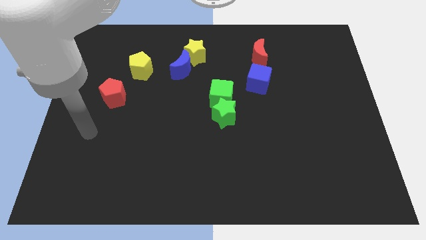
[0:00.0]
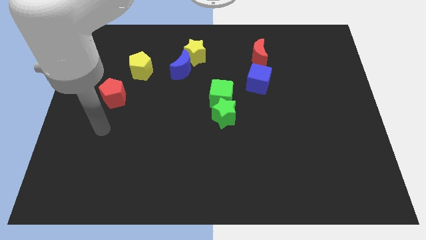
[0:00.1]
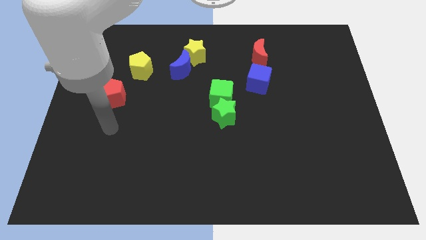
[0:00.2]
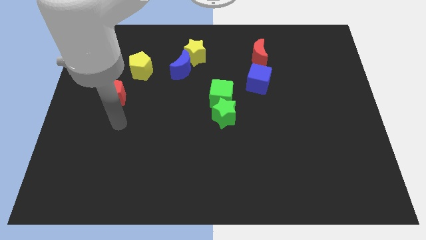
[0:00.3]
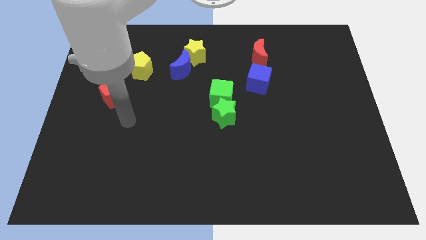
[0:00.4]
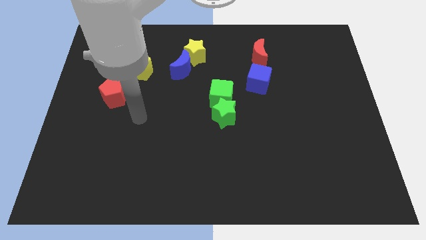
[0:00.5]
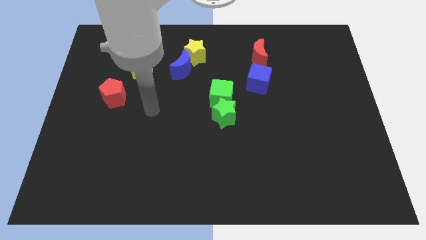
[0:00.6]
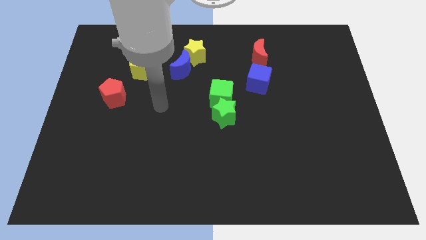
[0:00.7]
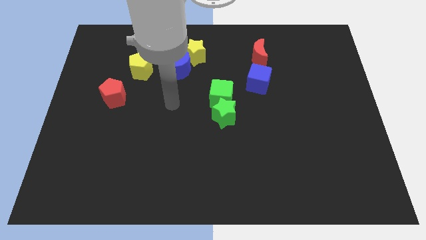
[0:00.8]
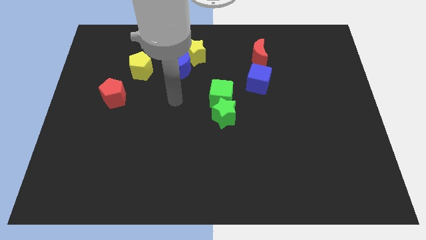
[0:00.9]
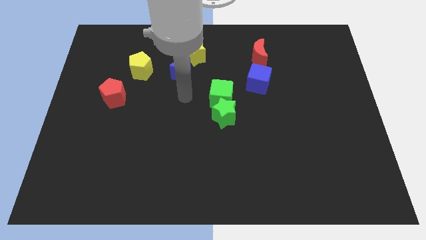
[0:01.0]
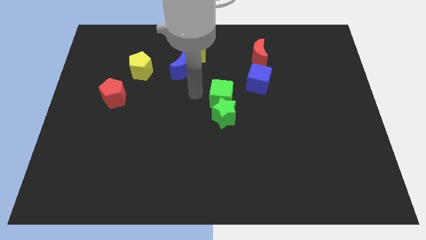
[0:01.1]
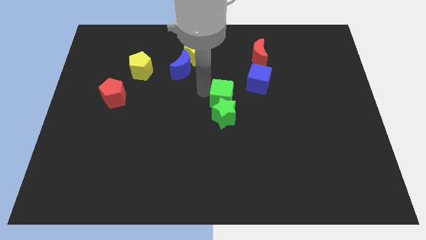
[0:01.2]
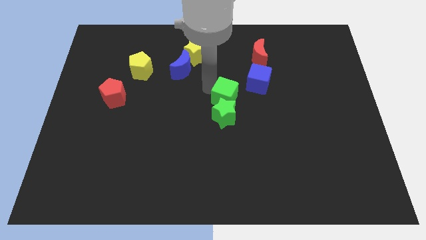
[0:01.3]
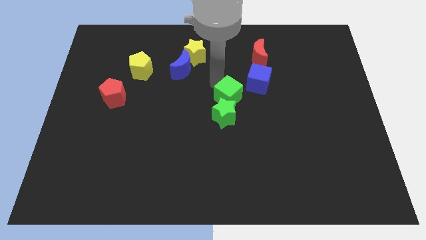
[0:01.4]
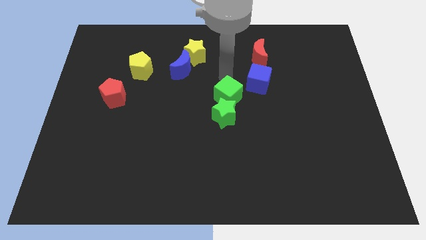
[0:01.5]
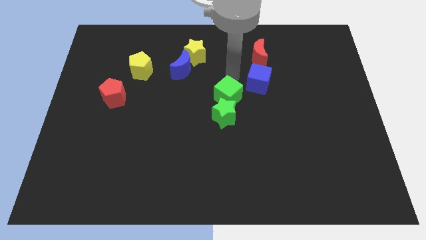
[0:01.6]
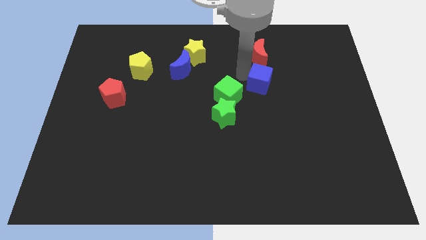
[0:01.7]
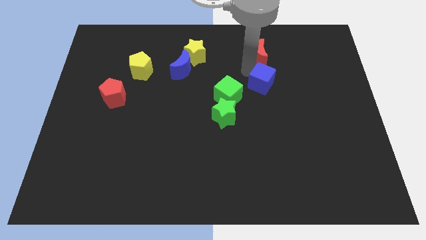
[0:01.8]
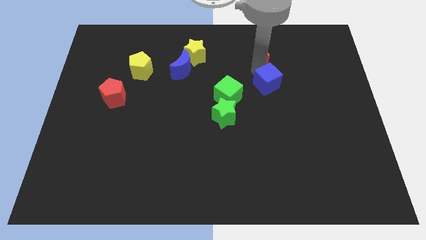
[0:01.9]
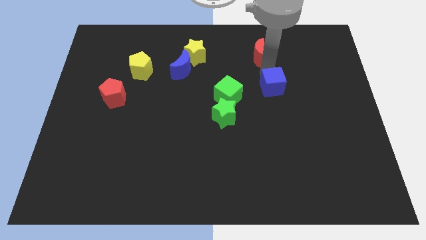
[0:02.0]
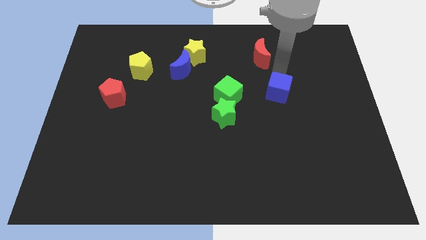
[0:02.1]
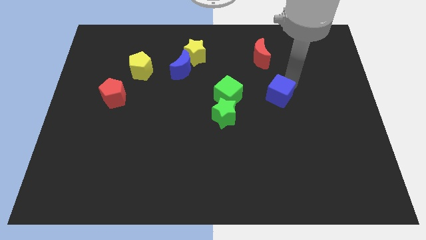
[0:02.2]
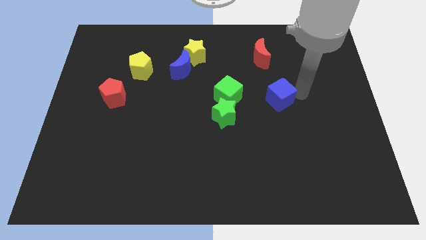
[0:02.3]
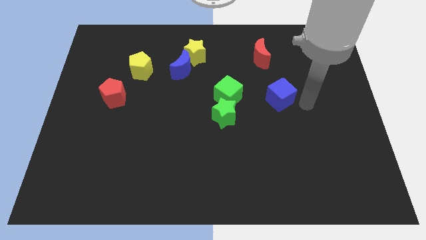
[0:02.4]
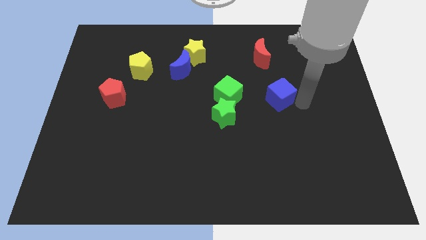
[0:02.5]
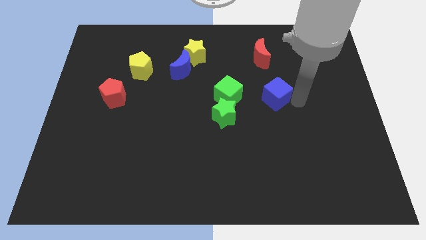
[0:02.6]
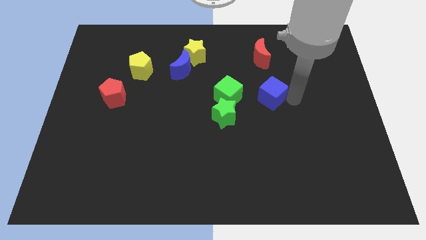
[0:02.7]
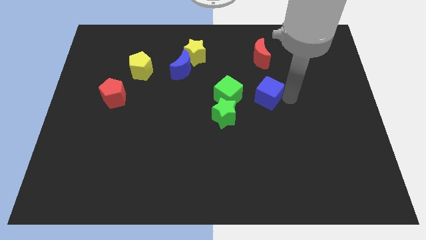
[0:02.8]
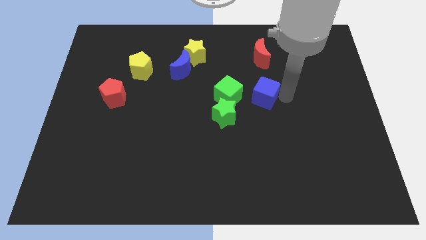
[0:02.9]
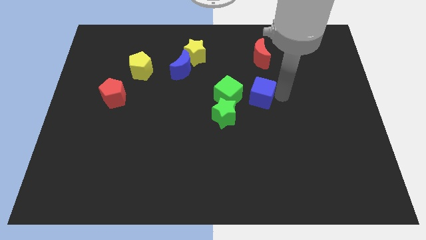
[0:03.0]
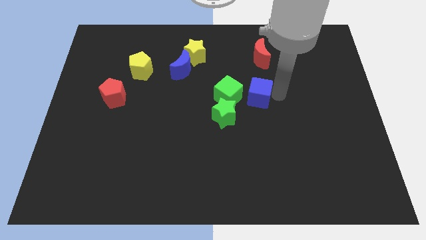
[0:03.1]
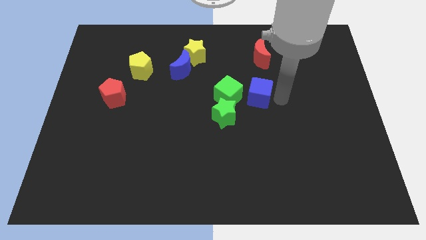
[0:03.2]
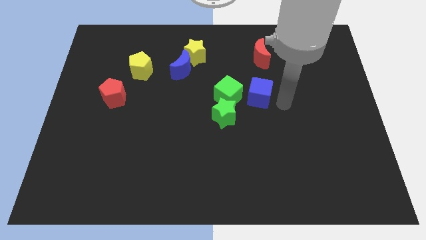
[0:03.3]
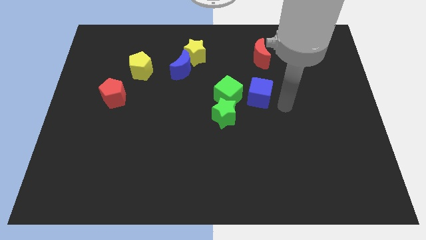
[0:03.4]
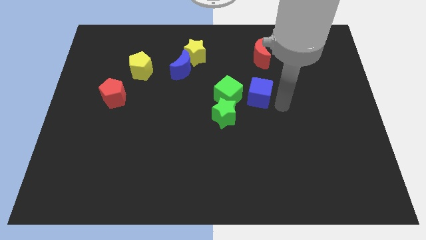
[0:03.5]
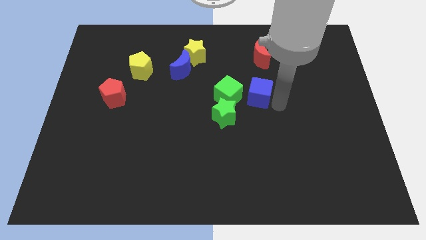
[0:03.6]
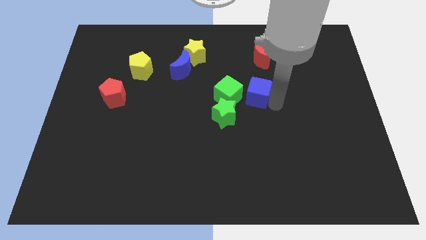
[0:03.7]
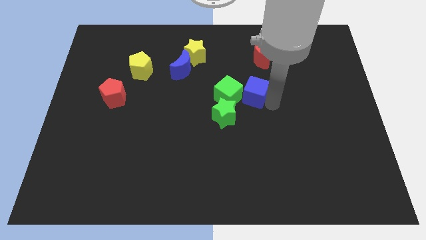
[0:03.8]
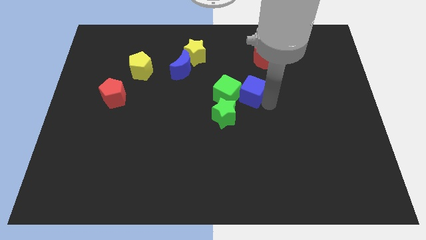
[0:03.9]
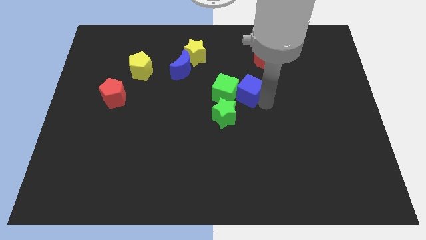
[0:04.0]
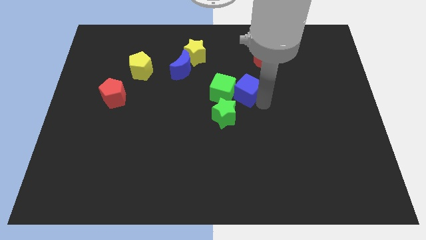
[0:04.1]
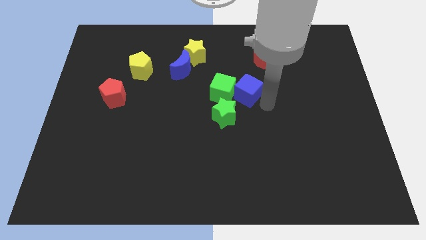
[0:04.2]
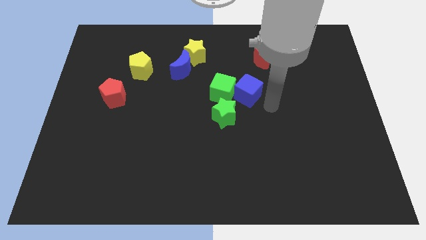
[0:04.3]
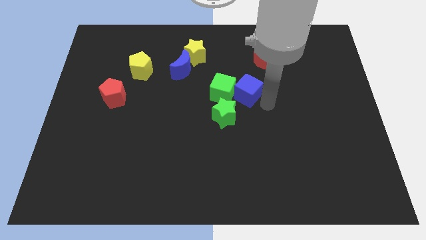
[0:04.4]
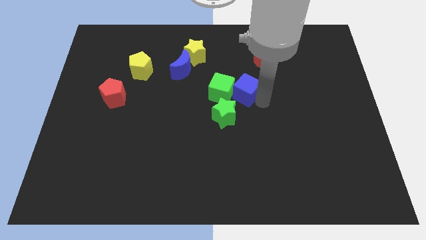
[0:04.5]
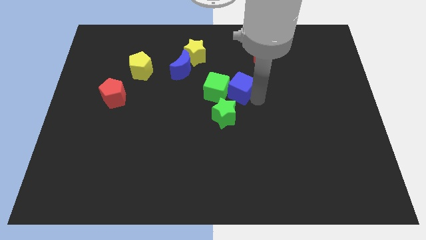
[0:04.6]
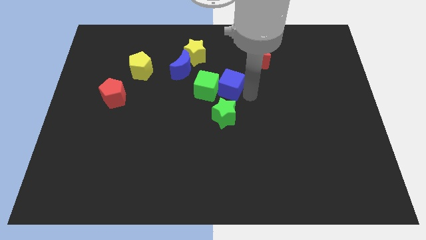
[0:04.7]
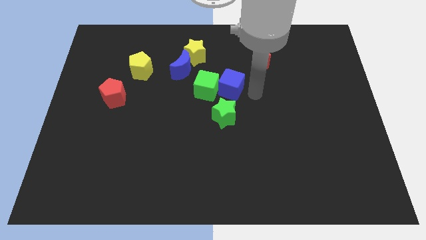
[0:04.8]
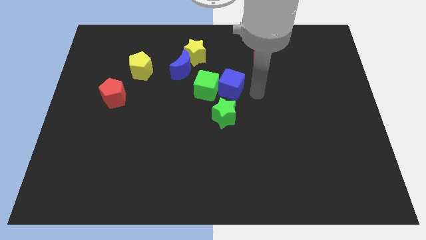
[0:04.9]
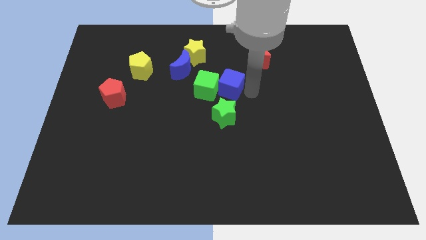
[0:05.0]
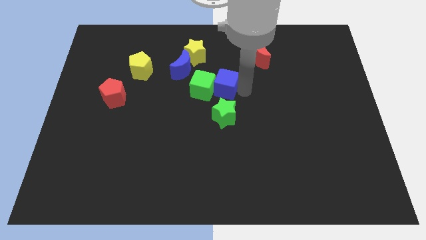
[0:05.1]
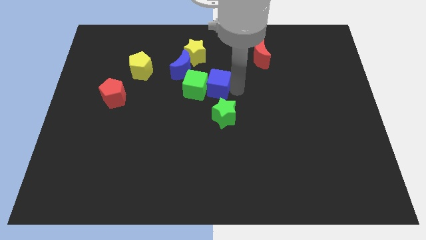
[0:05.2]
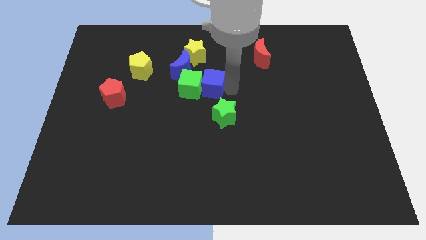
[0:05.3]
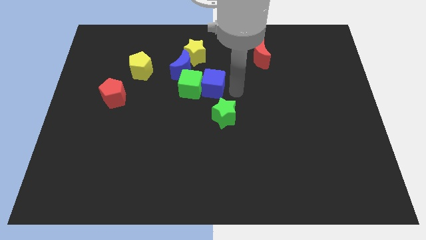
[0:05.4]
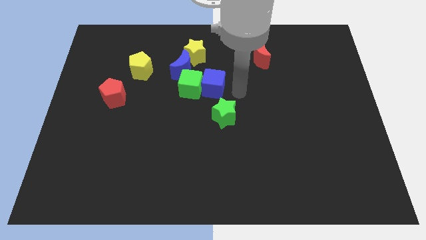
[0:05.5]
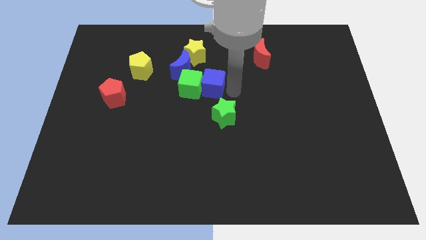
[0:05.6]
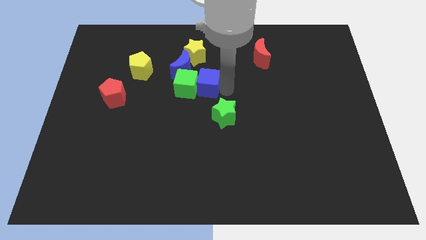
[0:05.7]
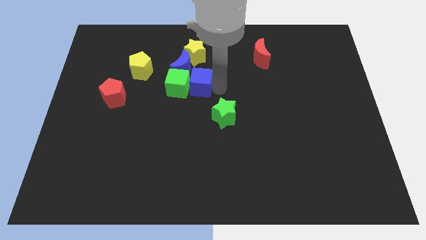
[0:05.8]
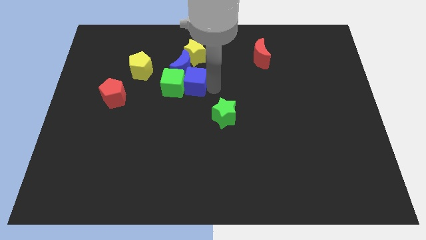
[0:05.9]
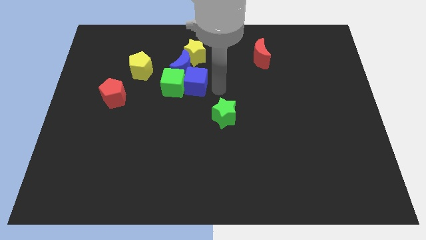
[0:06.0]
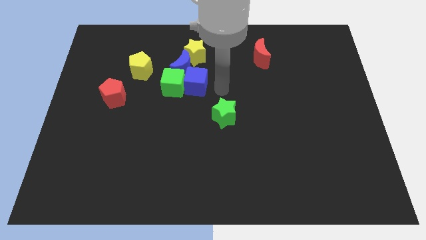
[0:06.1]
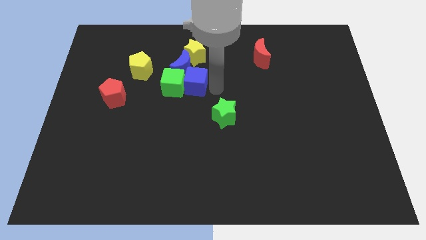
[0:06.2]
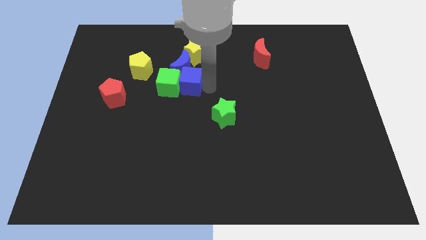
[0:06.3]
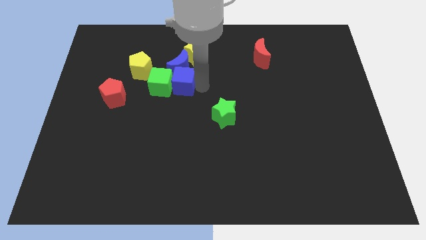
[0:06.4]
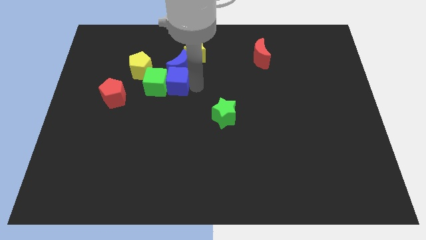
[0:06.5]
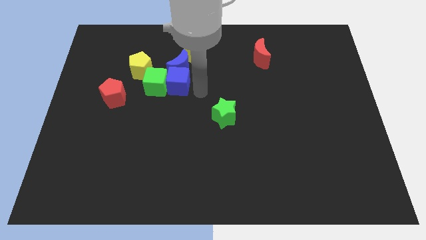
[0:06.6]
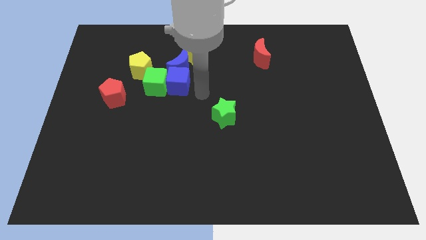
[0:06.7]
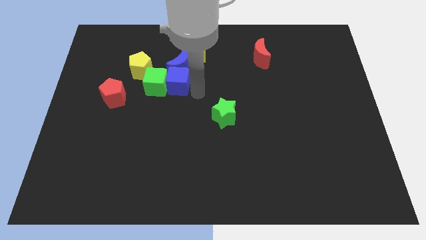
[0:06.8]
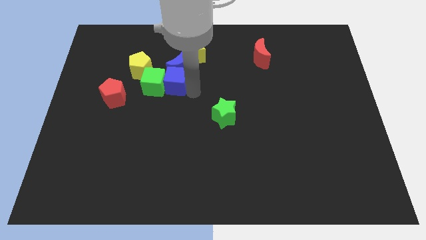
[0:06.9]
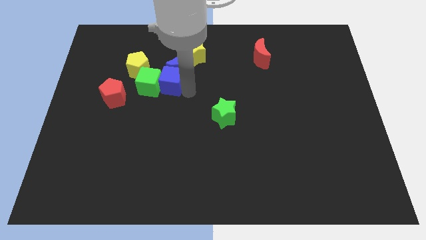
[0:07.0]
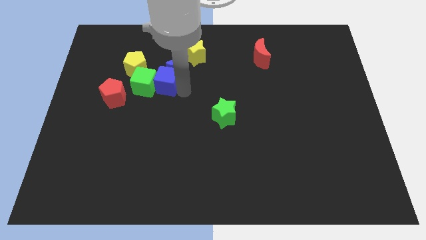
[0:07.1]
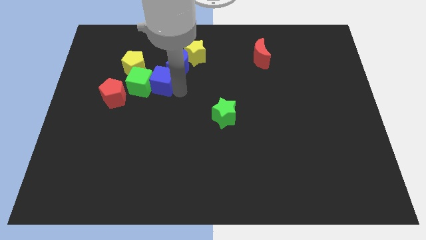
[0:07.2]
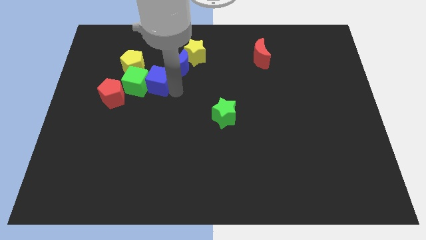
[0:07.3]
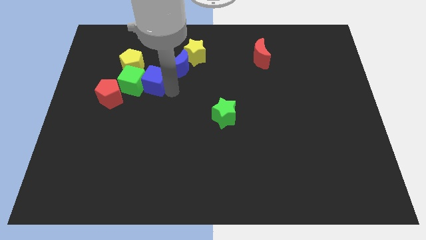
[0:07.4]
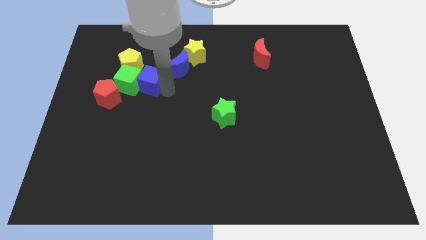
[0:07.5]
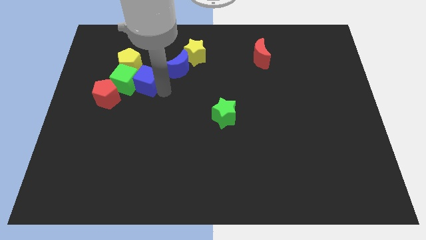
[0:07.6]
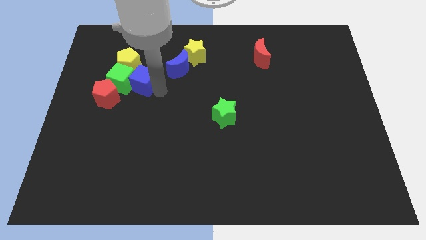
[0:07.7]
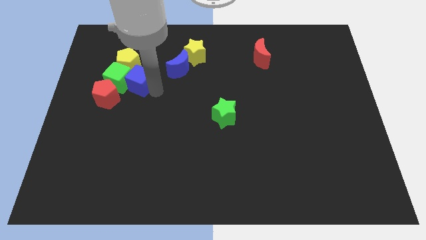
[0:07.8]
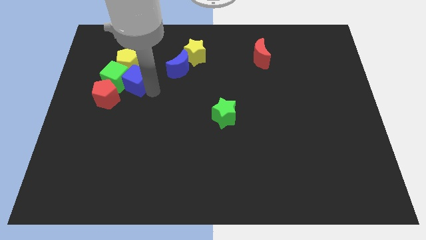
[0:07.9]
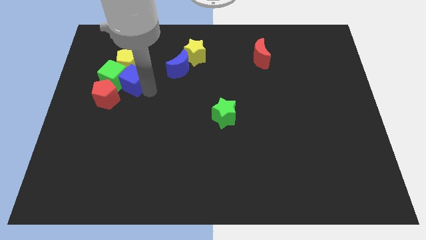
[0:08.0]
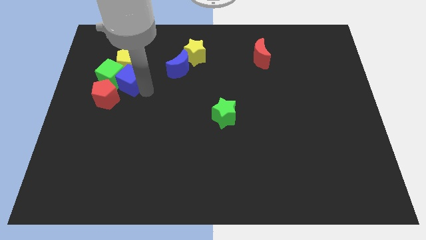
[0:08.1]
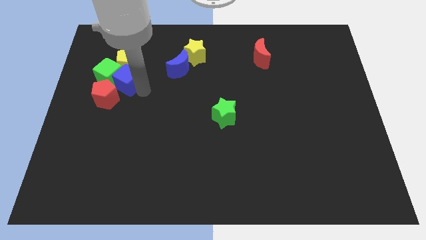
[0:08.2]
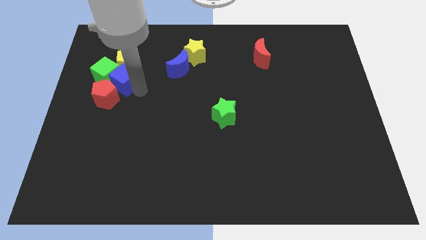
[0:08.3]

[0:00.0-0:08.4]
slide the blue cube towards the yellow pentagon
